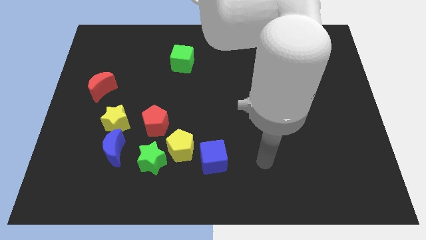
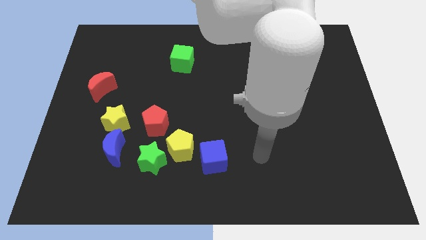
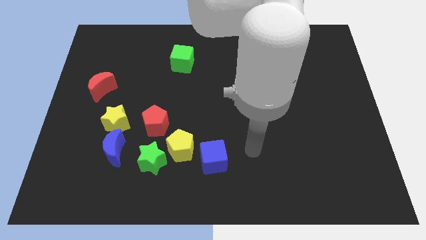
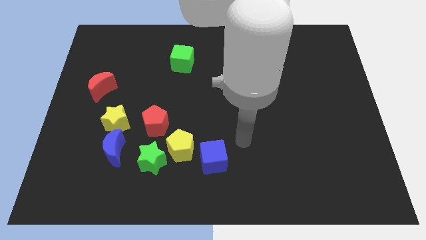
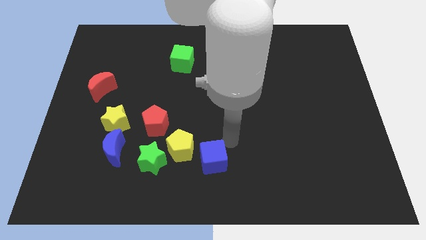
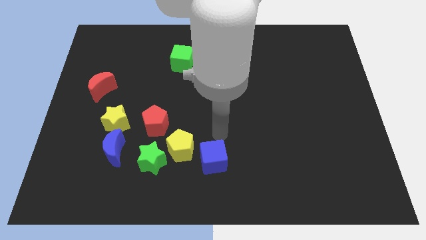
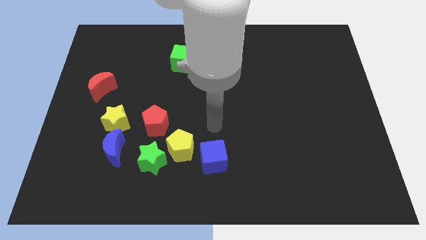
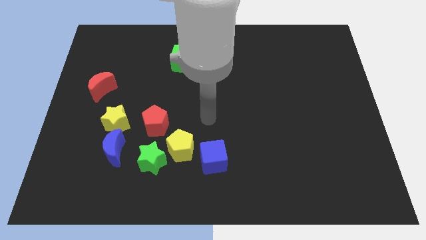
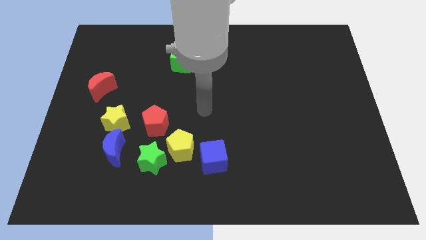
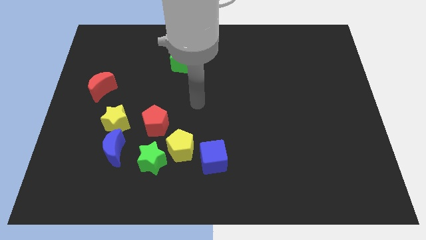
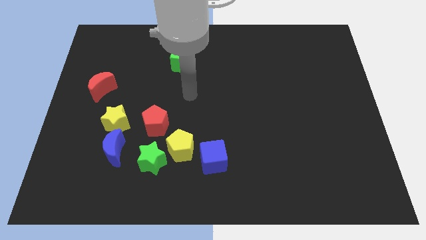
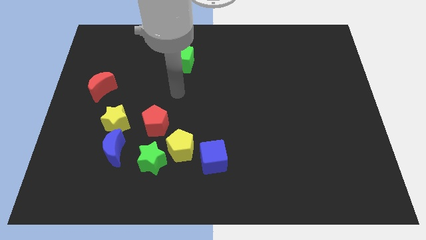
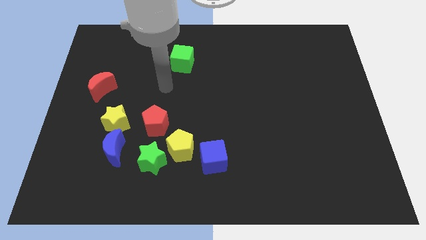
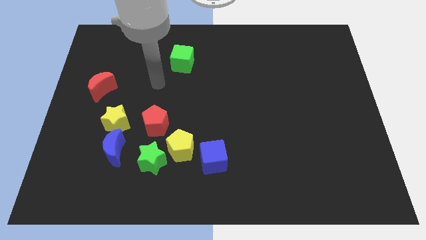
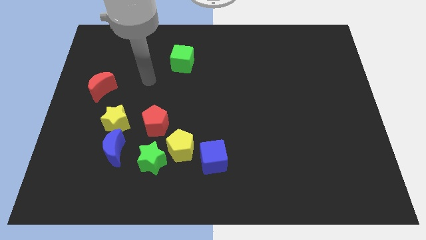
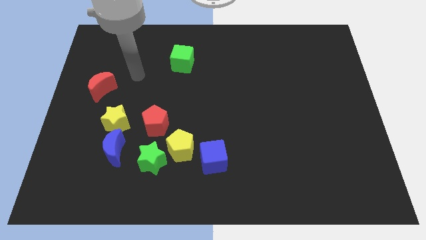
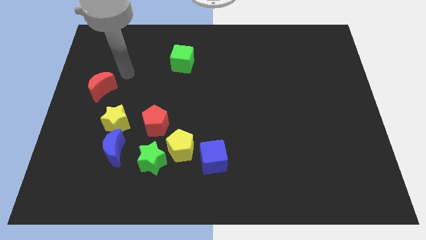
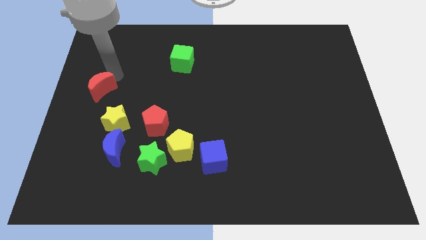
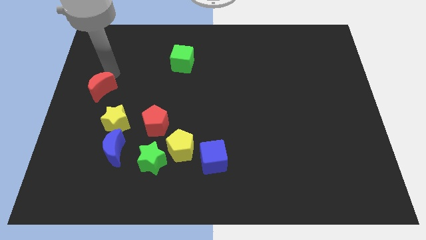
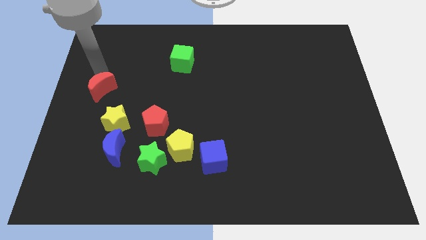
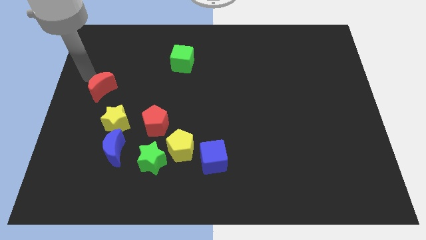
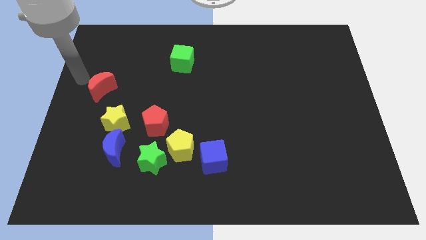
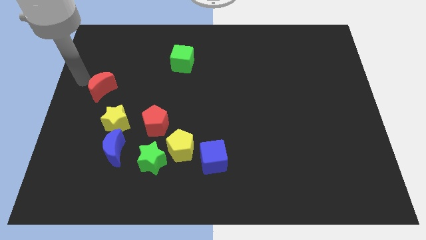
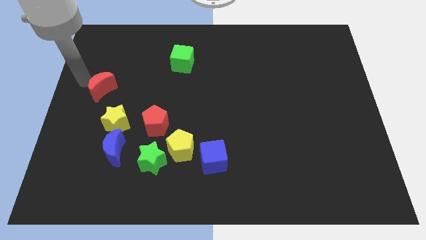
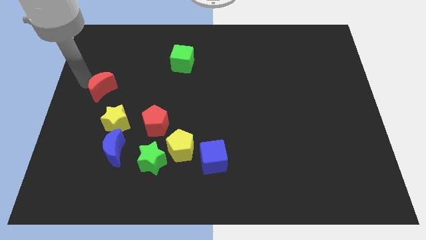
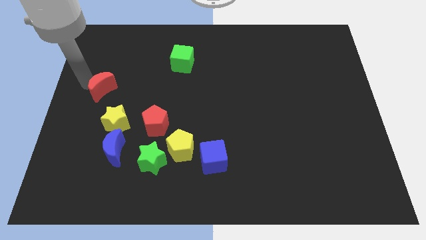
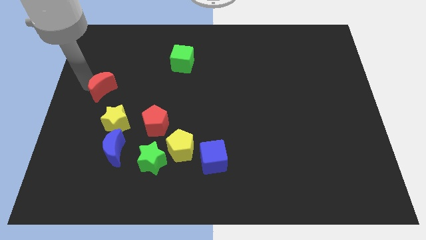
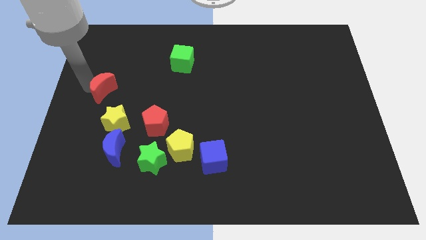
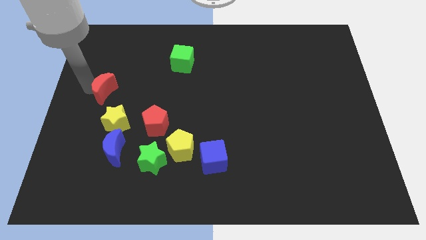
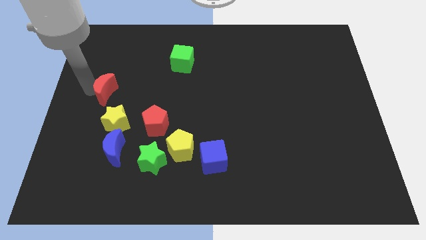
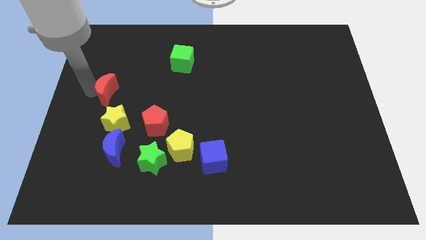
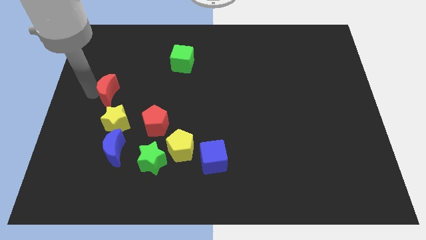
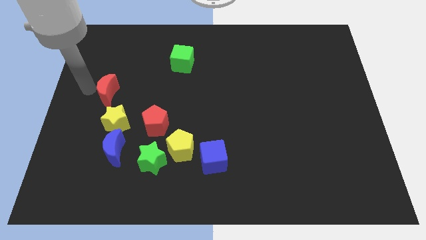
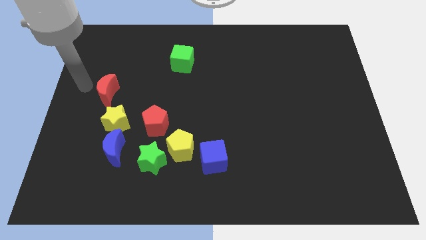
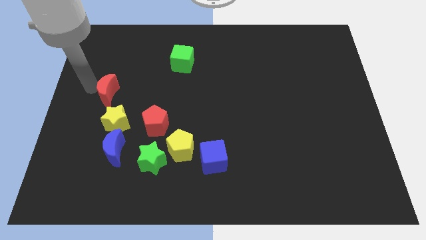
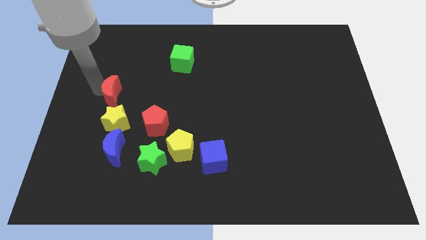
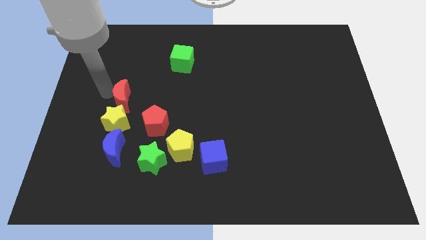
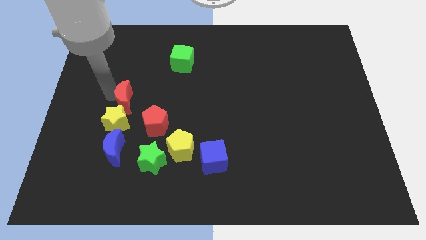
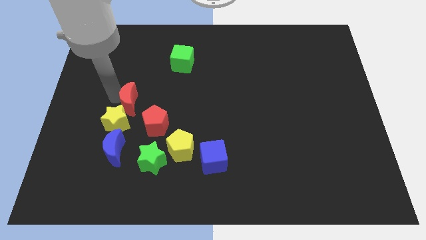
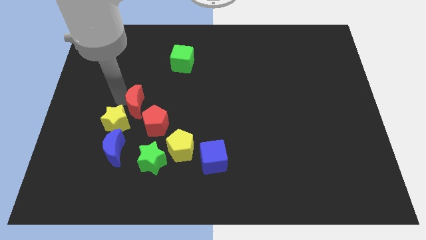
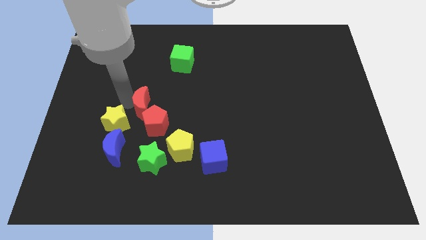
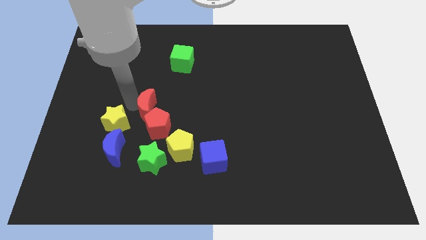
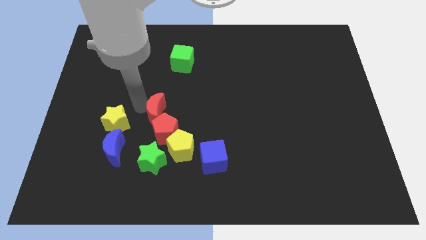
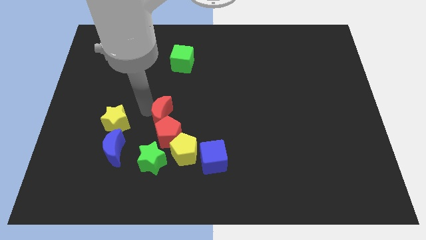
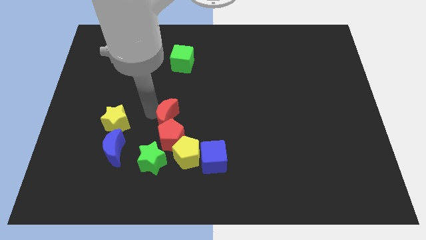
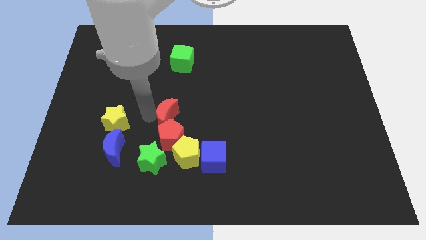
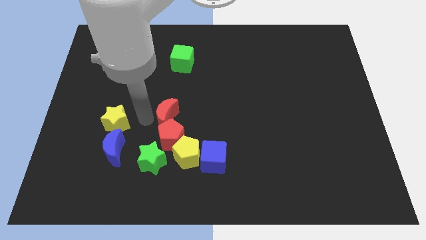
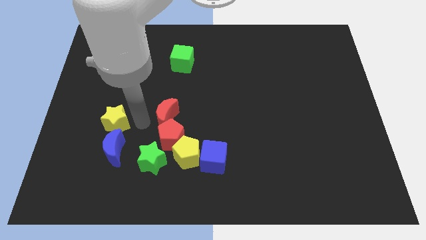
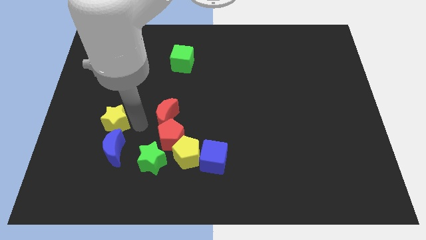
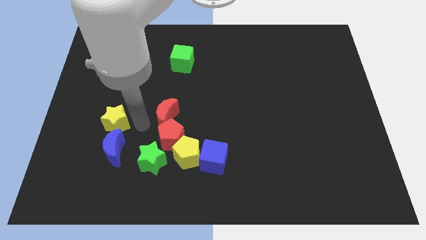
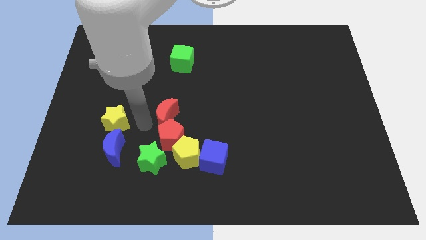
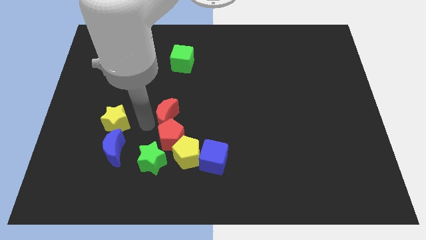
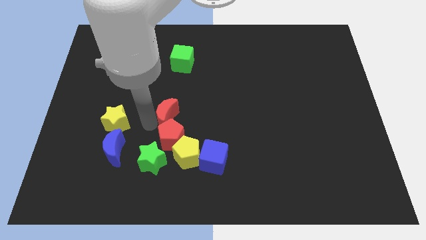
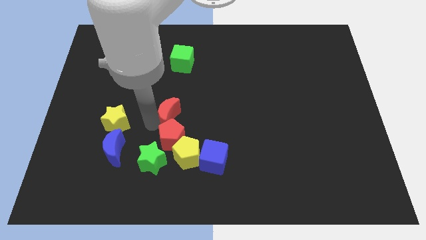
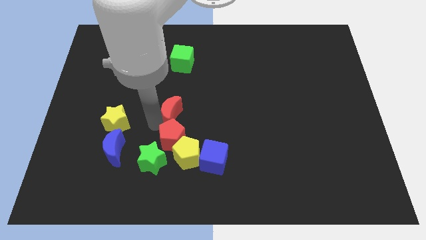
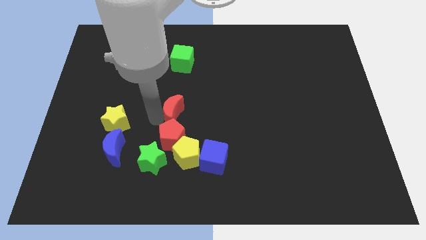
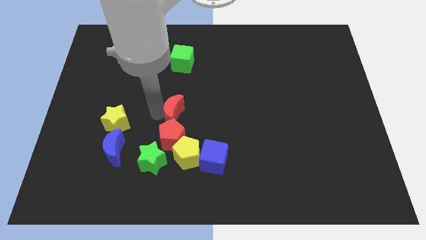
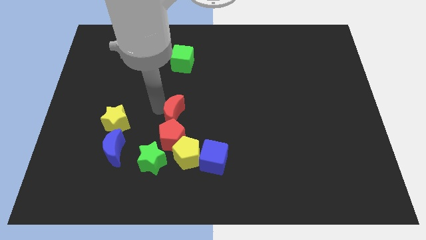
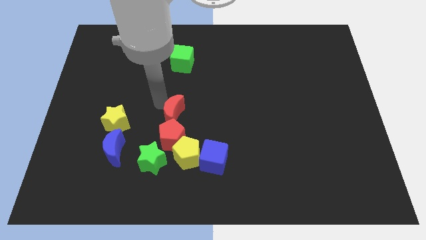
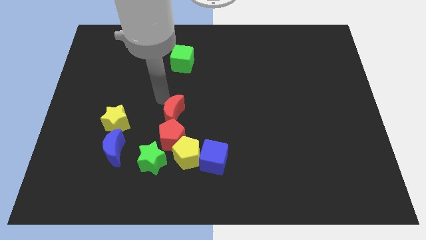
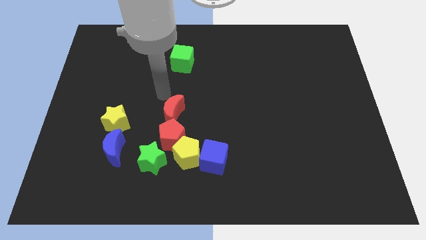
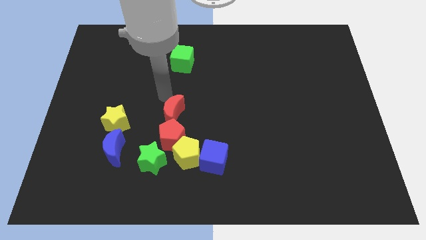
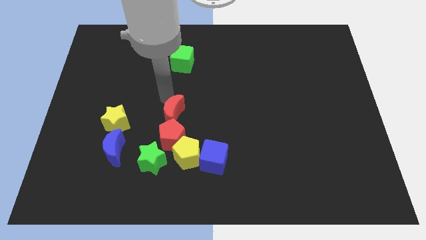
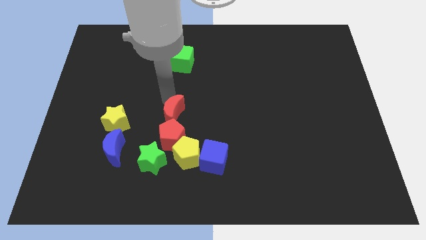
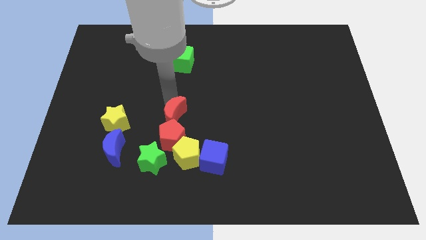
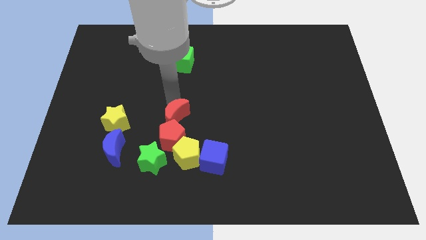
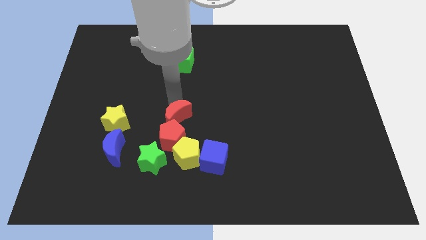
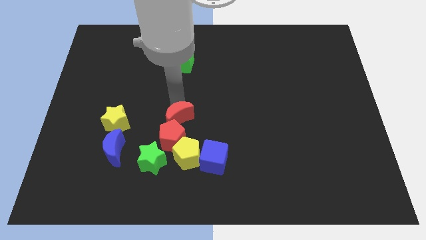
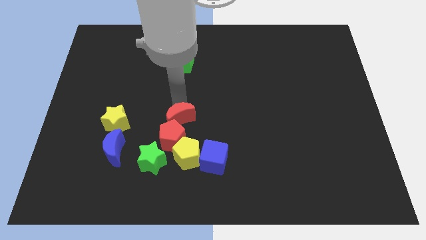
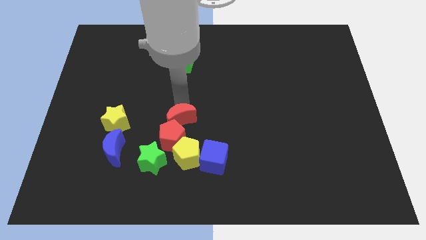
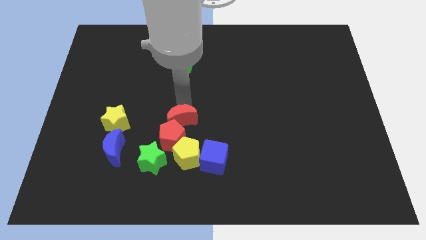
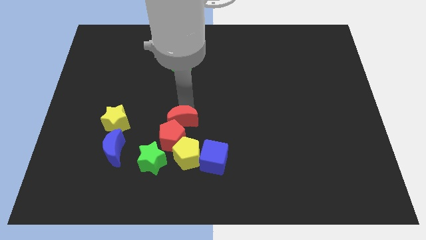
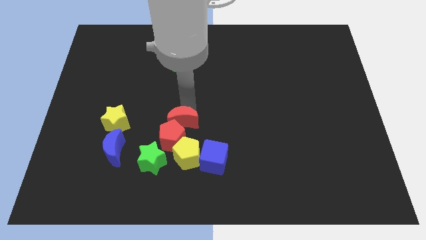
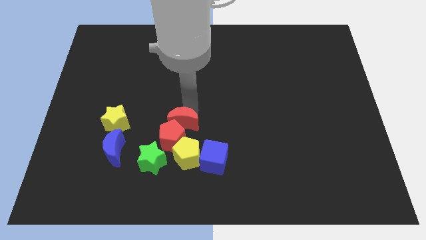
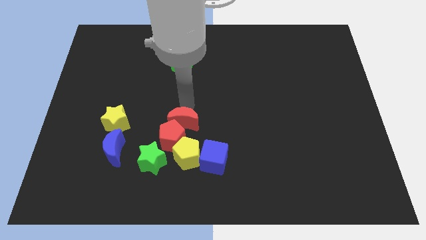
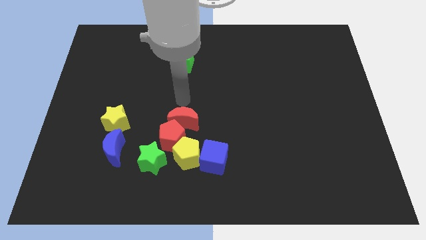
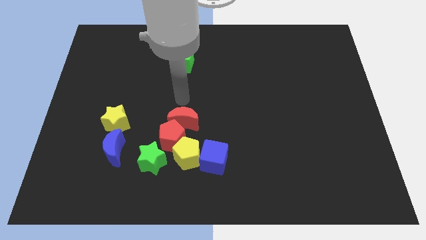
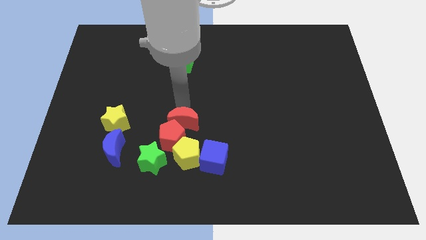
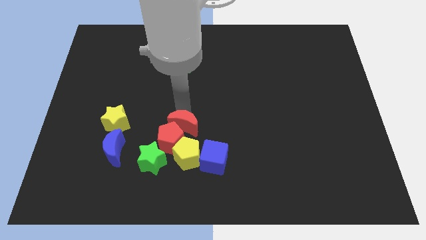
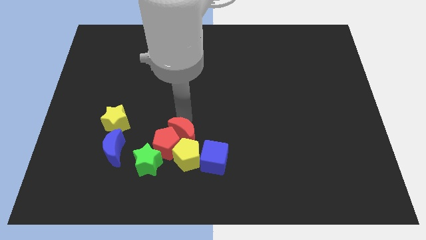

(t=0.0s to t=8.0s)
slide the red moon to the yellow pentagon
